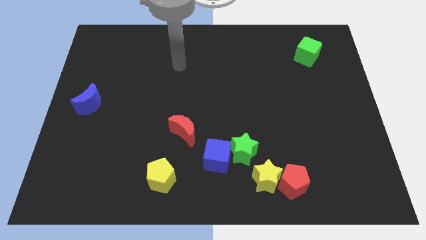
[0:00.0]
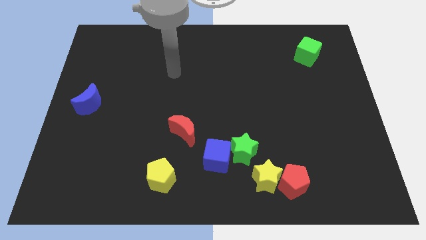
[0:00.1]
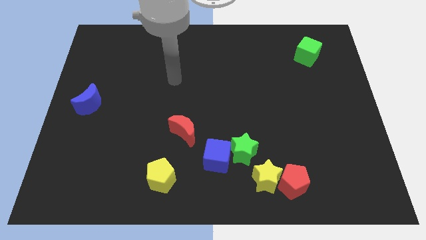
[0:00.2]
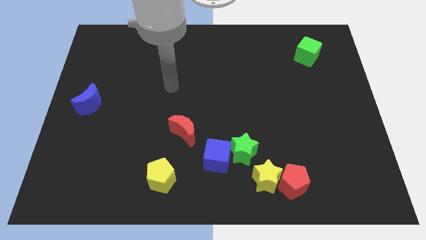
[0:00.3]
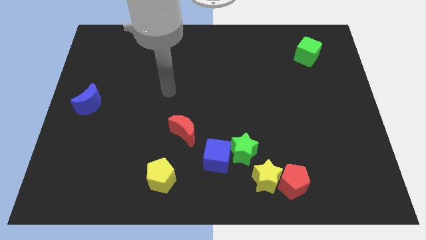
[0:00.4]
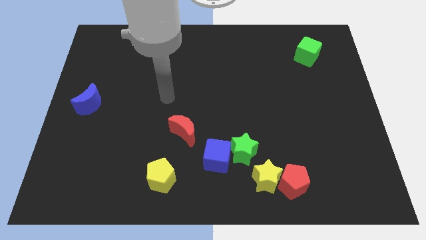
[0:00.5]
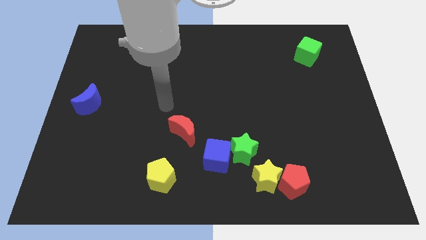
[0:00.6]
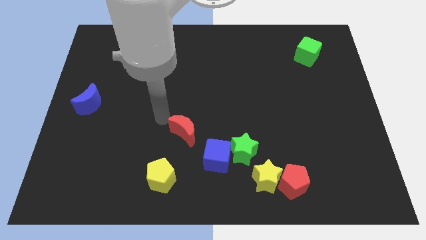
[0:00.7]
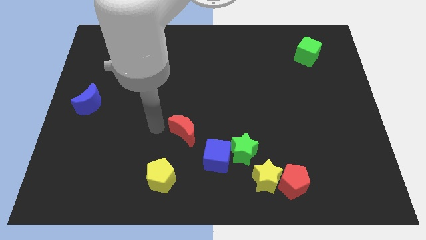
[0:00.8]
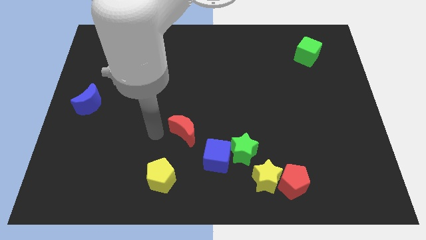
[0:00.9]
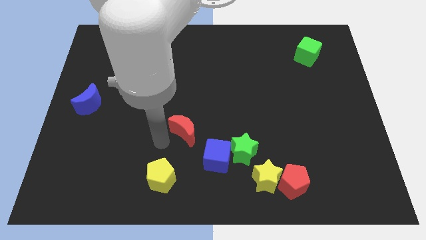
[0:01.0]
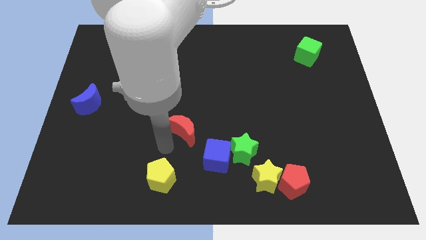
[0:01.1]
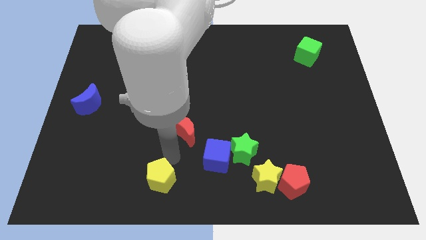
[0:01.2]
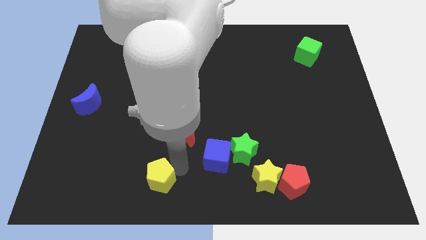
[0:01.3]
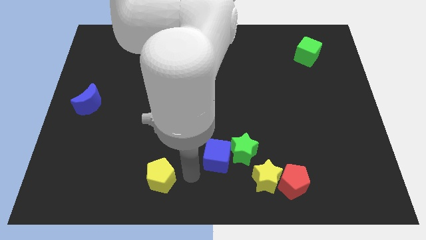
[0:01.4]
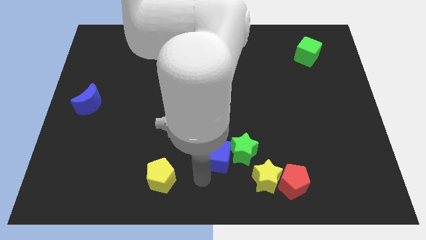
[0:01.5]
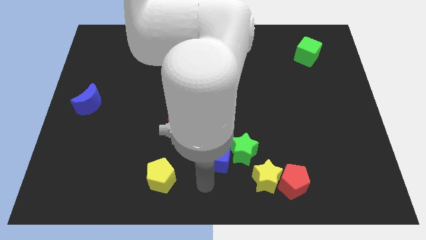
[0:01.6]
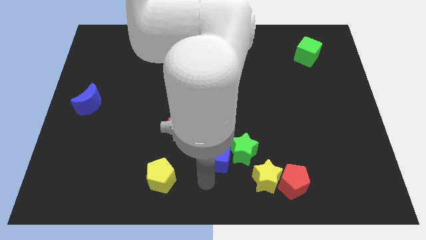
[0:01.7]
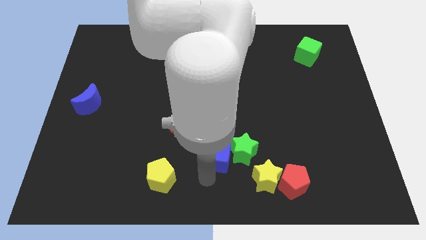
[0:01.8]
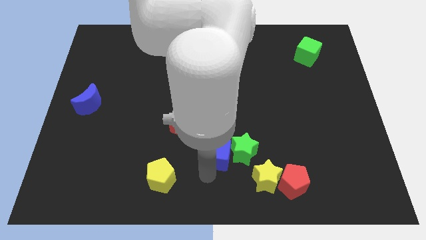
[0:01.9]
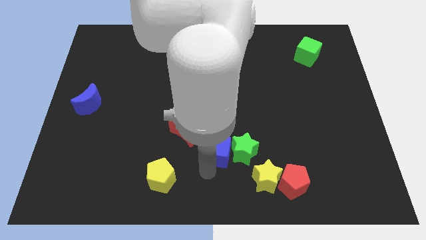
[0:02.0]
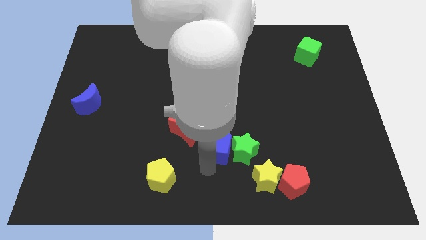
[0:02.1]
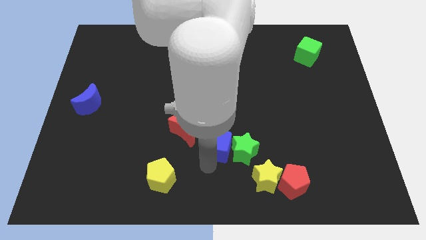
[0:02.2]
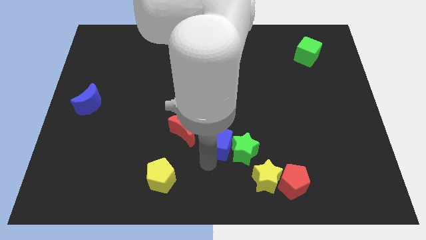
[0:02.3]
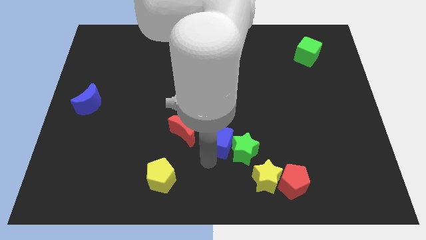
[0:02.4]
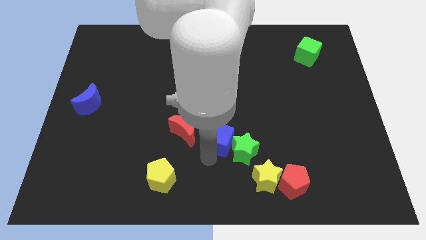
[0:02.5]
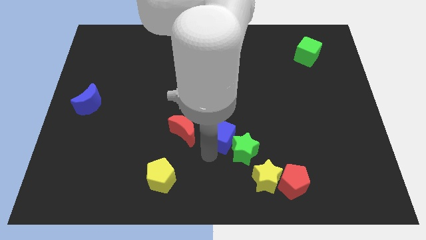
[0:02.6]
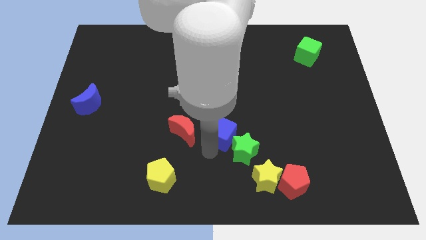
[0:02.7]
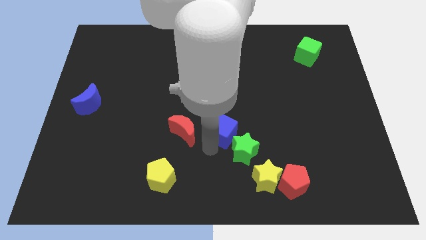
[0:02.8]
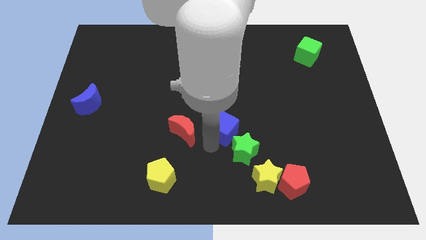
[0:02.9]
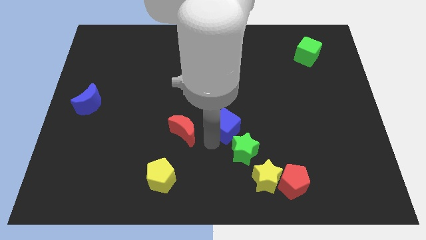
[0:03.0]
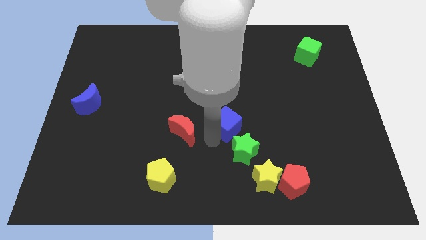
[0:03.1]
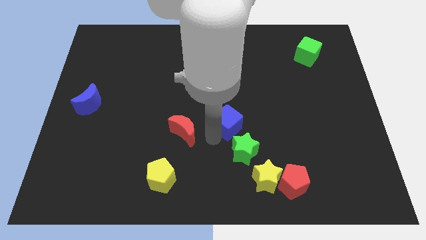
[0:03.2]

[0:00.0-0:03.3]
slide the blue cube a little up and then right

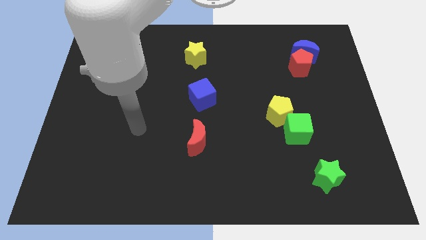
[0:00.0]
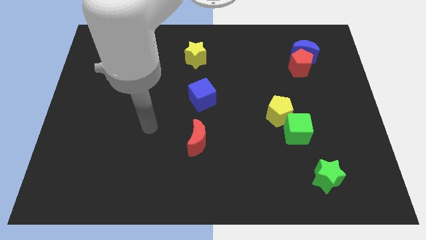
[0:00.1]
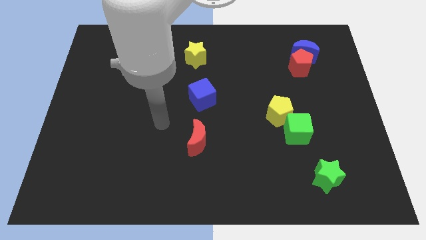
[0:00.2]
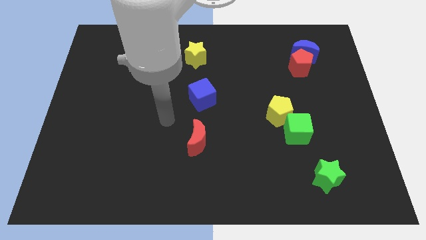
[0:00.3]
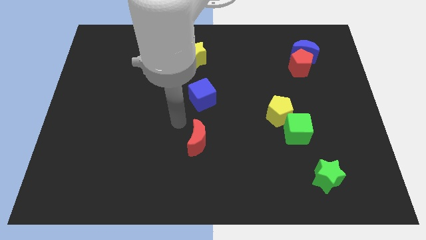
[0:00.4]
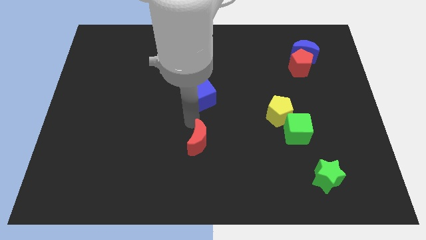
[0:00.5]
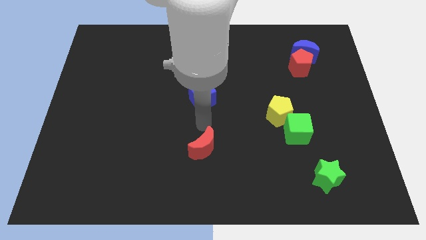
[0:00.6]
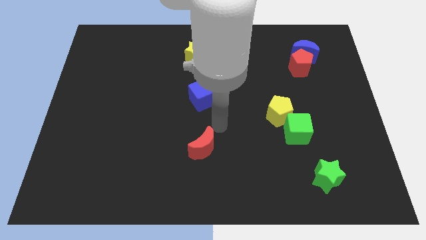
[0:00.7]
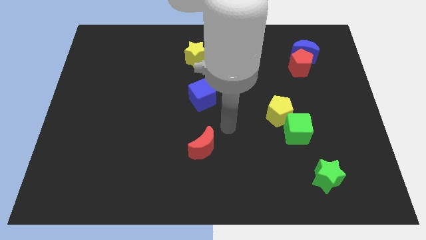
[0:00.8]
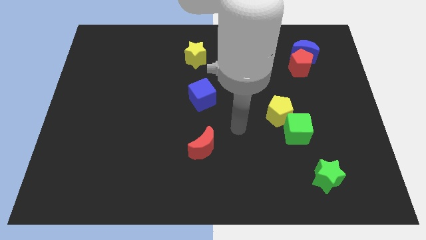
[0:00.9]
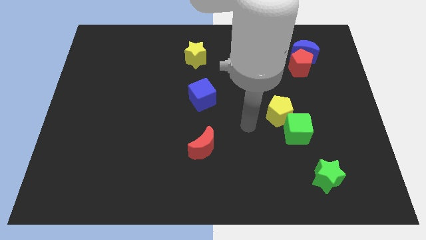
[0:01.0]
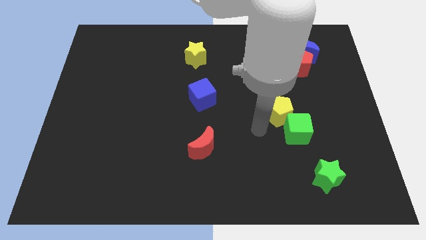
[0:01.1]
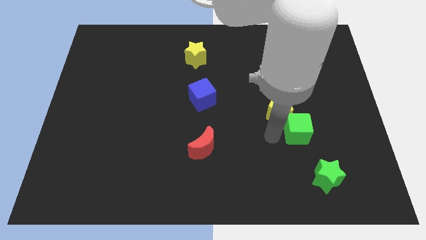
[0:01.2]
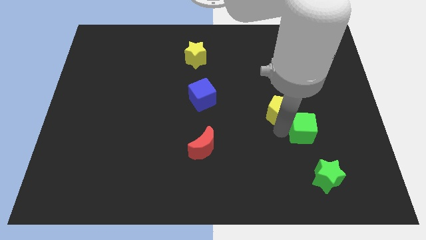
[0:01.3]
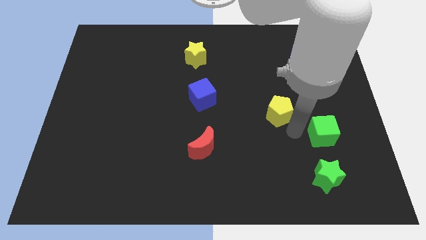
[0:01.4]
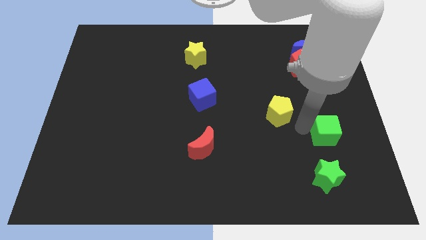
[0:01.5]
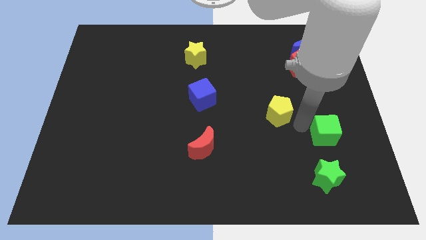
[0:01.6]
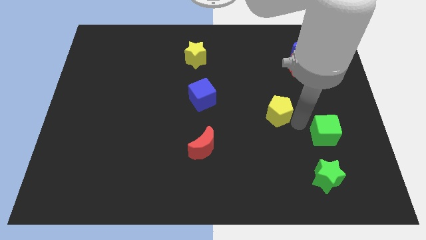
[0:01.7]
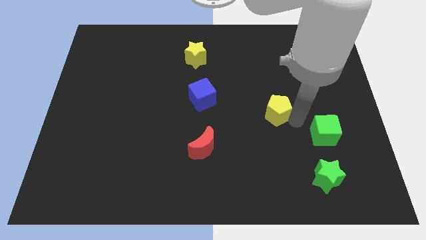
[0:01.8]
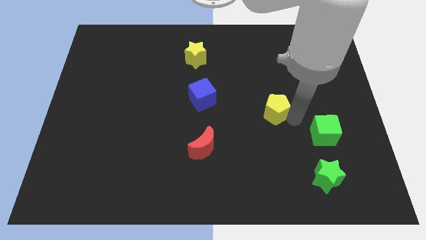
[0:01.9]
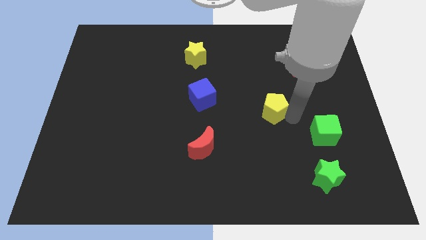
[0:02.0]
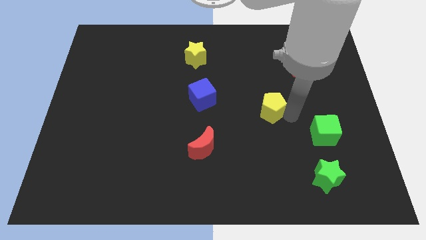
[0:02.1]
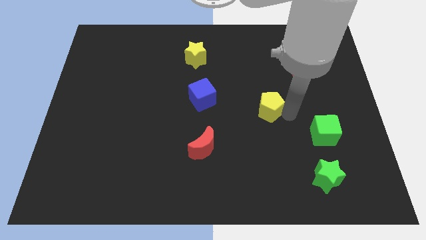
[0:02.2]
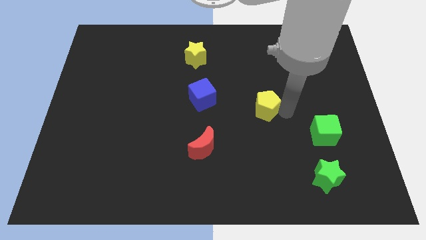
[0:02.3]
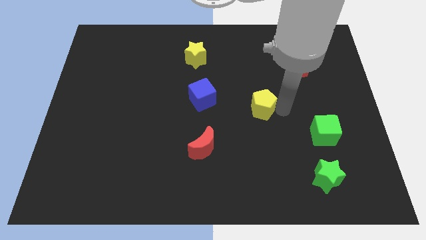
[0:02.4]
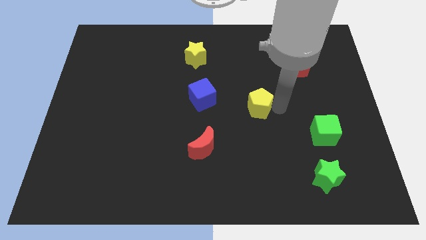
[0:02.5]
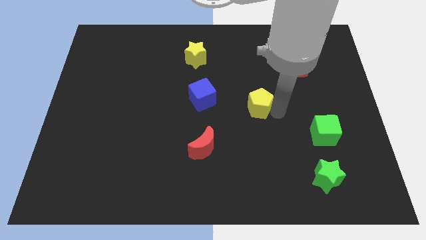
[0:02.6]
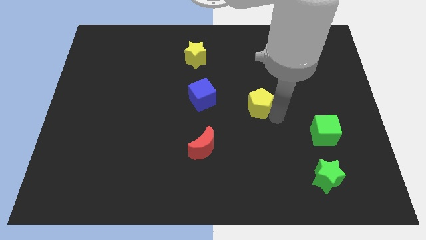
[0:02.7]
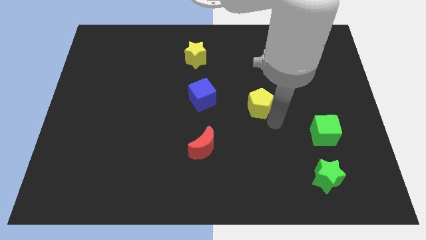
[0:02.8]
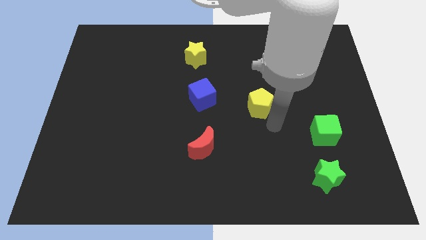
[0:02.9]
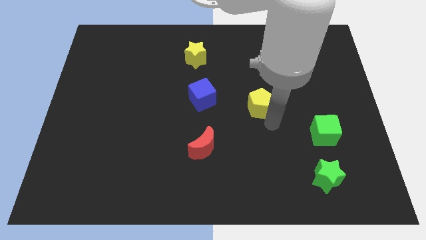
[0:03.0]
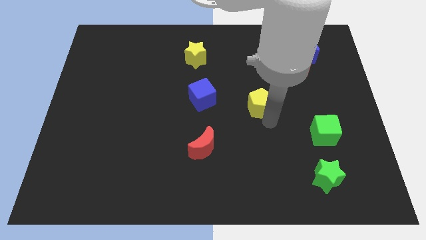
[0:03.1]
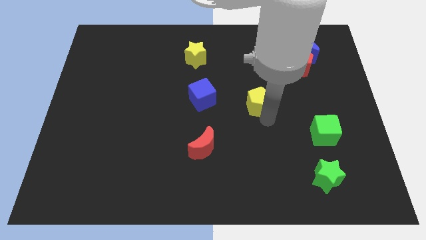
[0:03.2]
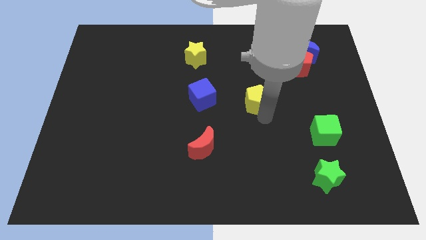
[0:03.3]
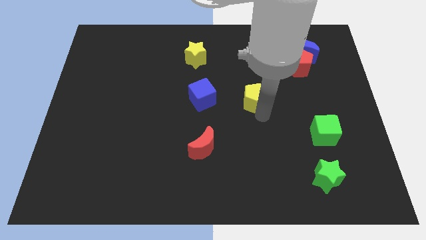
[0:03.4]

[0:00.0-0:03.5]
slightly push the yellow pentagon up and then left

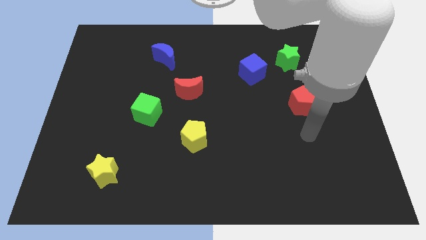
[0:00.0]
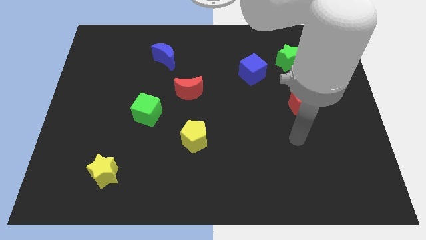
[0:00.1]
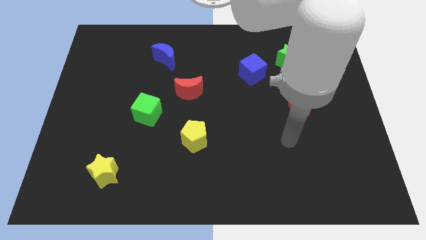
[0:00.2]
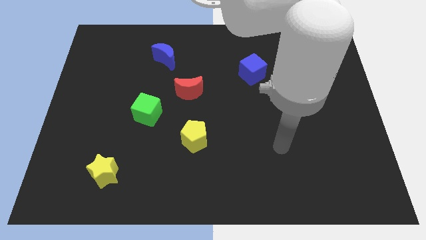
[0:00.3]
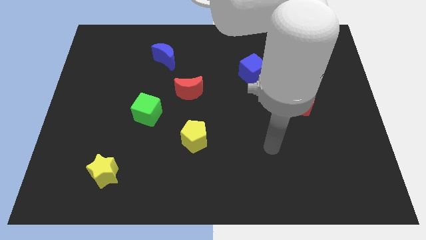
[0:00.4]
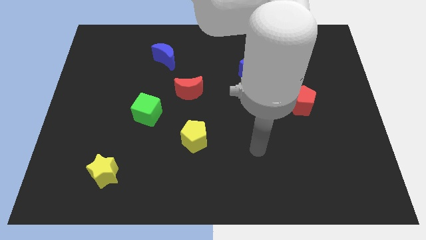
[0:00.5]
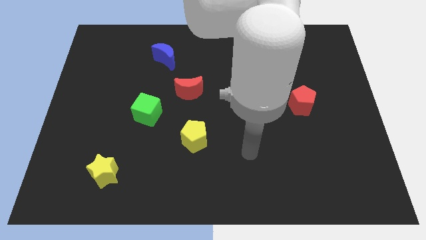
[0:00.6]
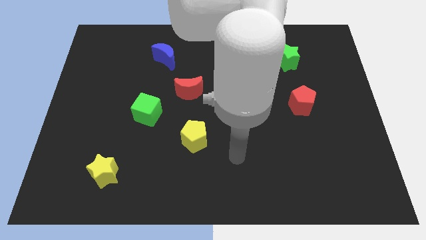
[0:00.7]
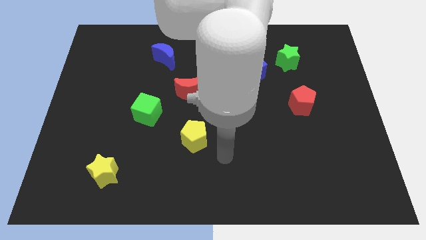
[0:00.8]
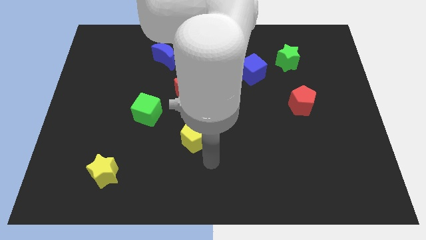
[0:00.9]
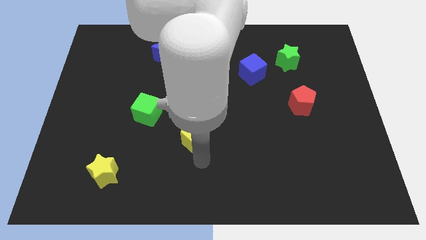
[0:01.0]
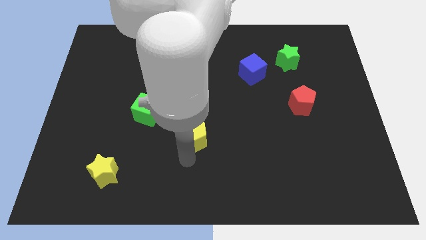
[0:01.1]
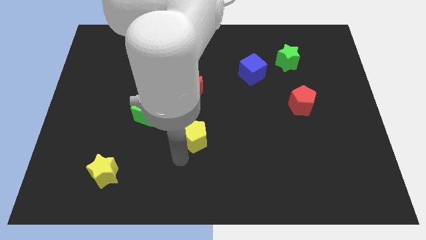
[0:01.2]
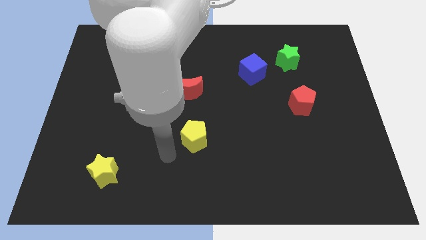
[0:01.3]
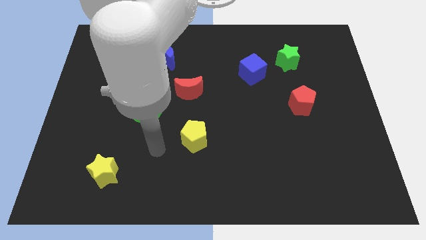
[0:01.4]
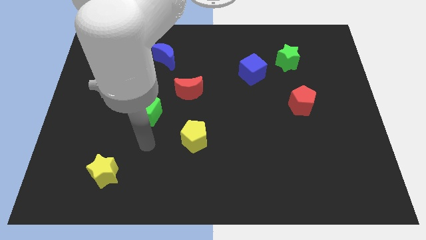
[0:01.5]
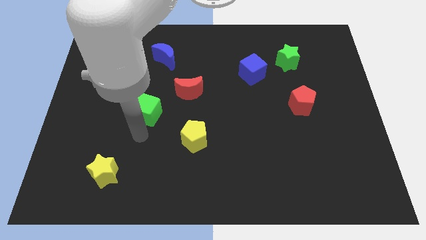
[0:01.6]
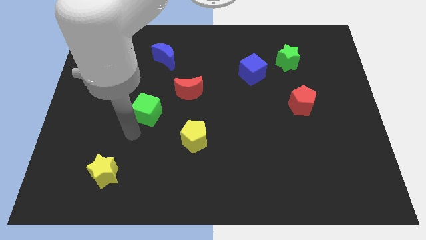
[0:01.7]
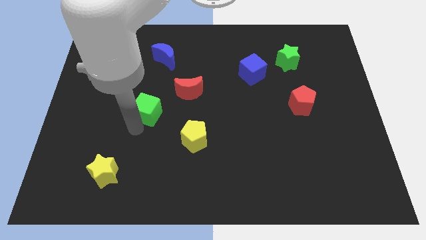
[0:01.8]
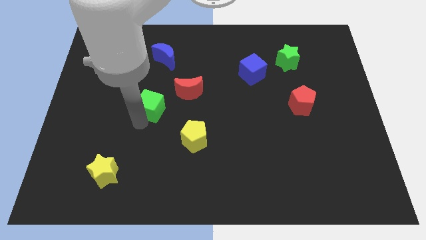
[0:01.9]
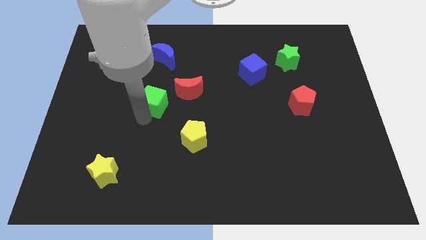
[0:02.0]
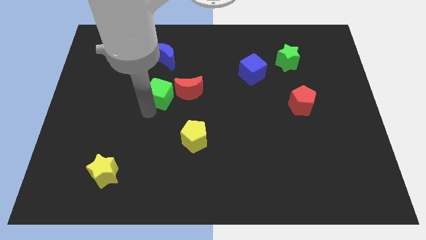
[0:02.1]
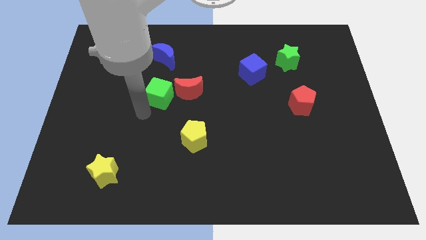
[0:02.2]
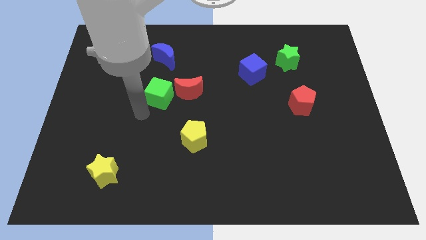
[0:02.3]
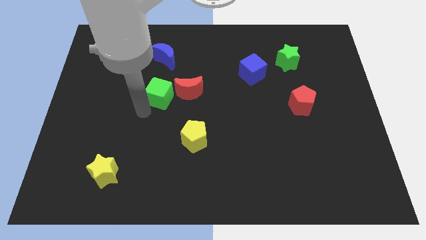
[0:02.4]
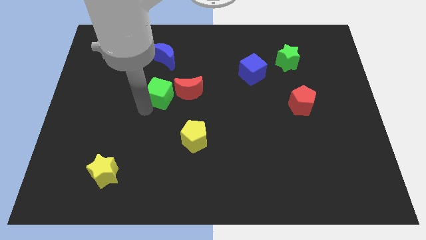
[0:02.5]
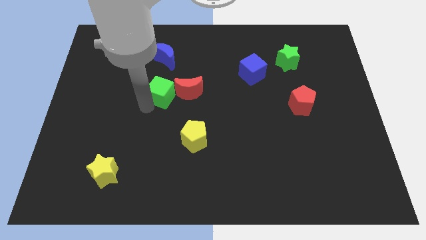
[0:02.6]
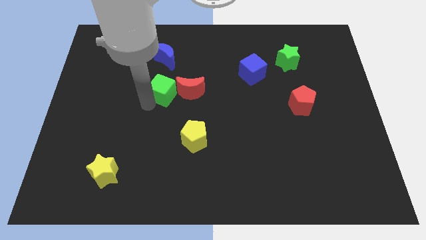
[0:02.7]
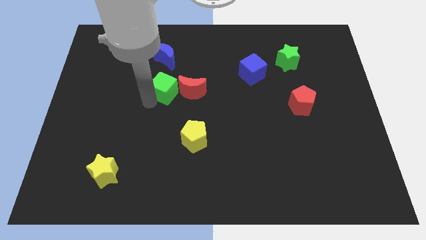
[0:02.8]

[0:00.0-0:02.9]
slightly move the green cube upwards and to the right
